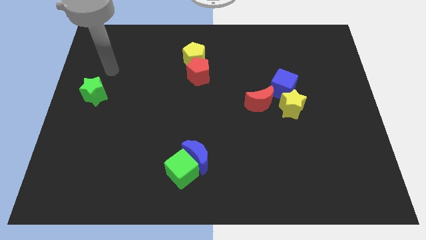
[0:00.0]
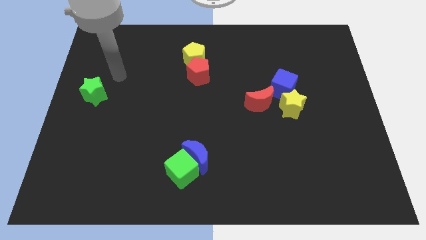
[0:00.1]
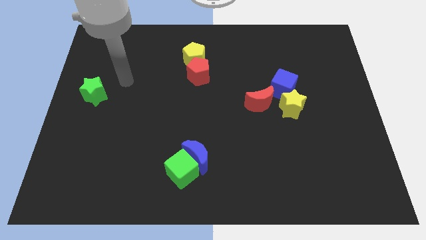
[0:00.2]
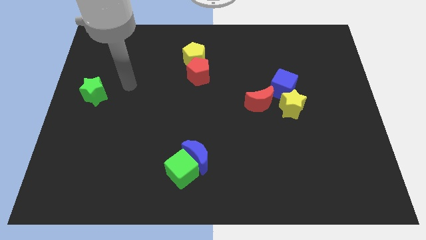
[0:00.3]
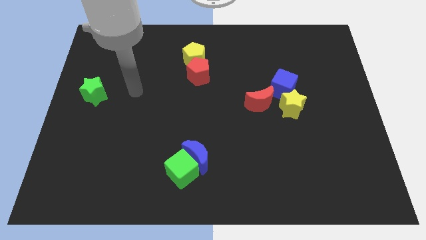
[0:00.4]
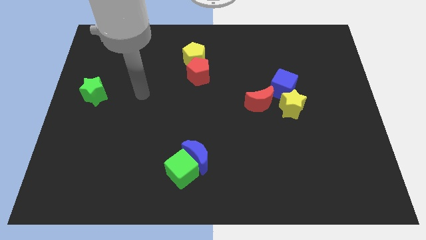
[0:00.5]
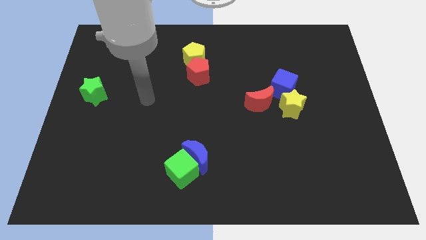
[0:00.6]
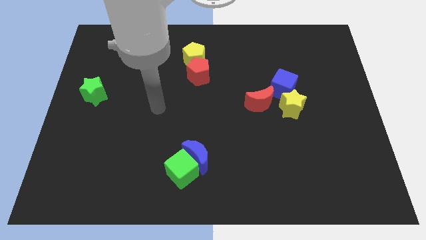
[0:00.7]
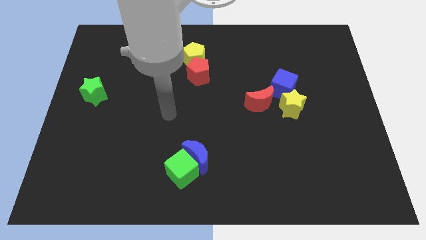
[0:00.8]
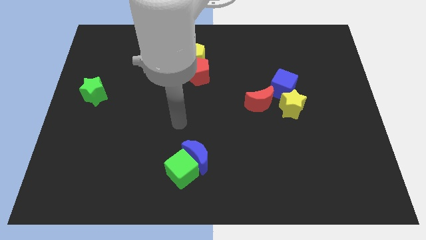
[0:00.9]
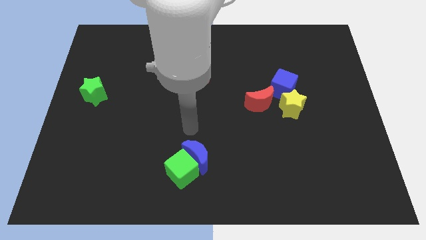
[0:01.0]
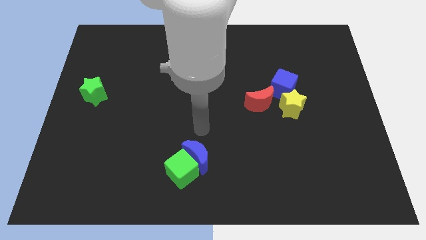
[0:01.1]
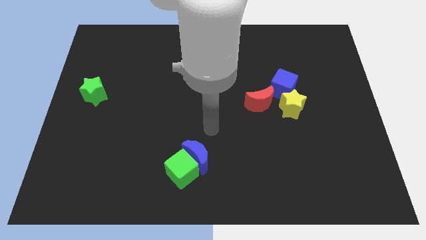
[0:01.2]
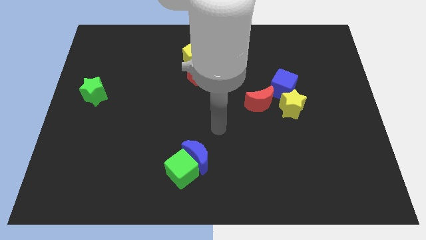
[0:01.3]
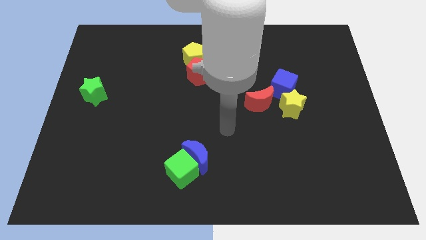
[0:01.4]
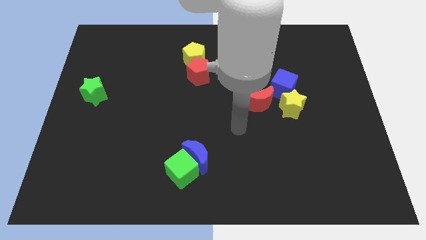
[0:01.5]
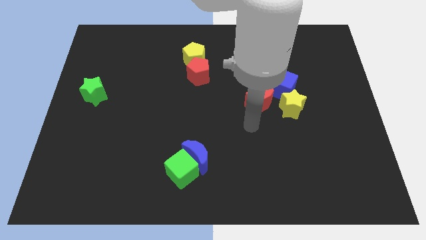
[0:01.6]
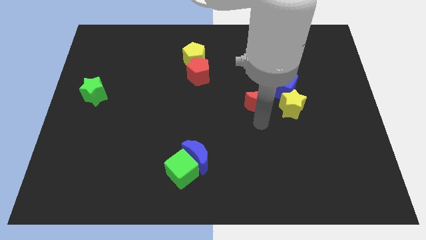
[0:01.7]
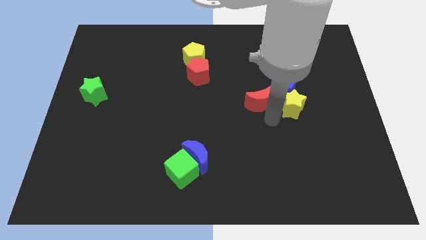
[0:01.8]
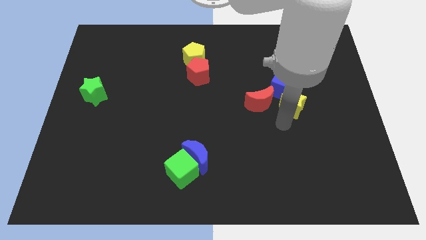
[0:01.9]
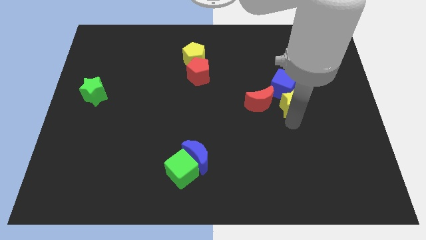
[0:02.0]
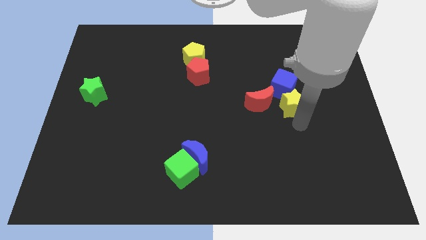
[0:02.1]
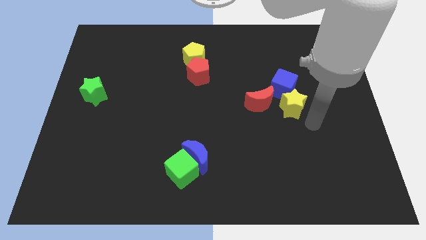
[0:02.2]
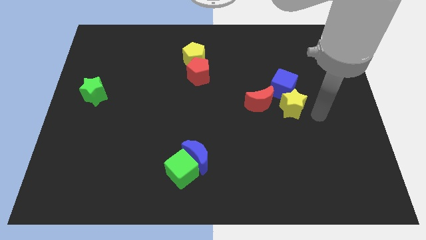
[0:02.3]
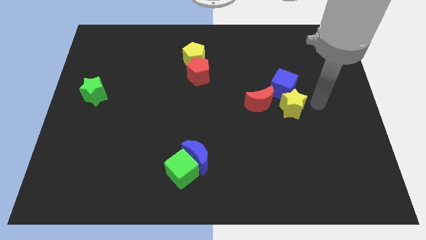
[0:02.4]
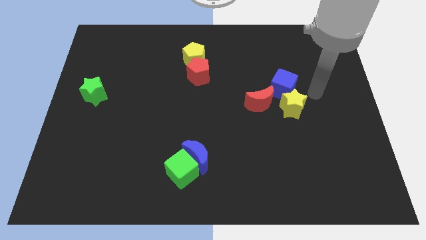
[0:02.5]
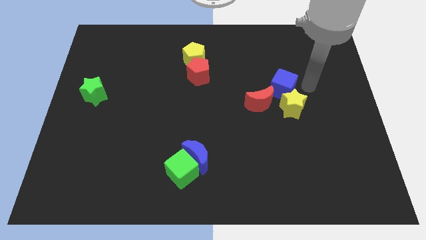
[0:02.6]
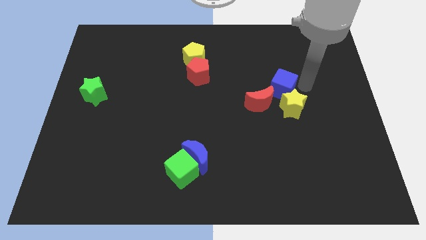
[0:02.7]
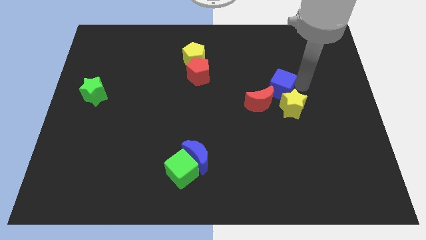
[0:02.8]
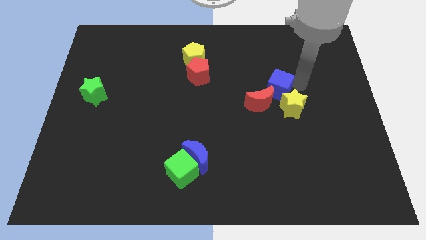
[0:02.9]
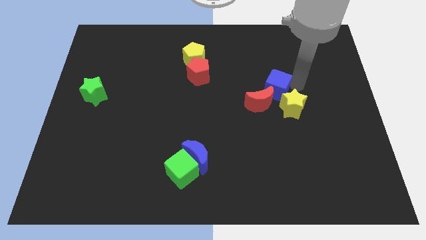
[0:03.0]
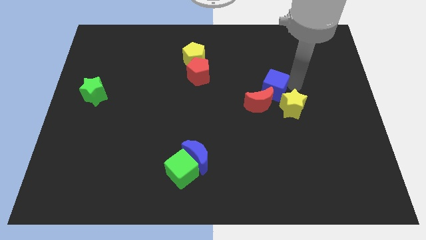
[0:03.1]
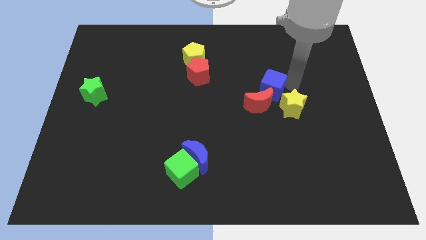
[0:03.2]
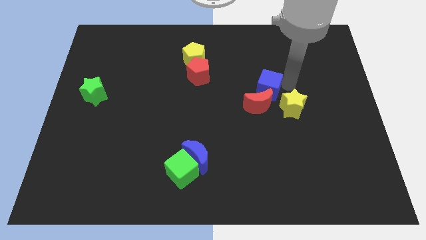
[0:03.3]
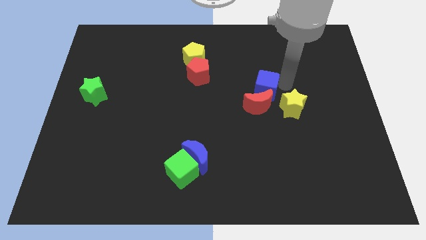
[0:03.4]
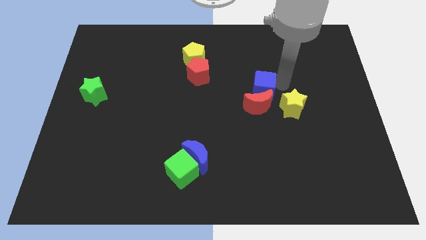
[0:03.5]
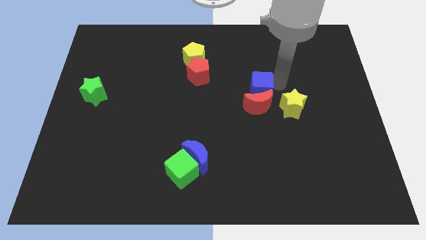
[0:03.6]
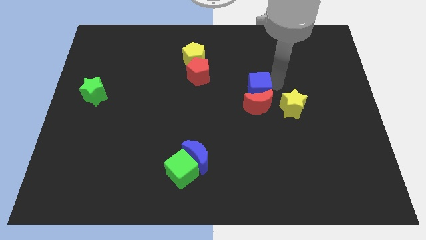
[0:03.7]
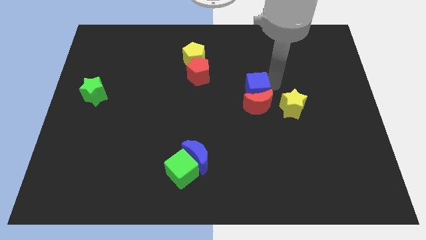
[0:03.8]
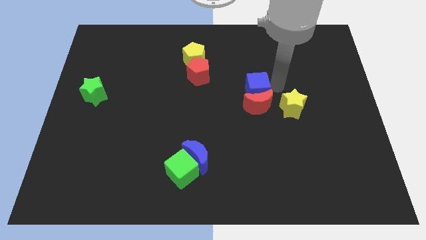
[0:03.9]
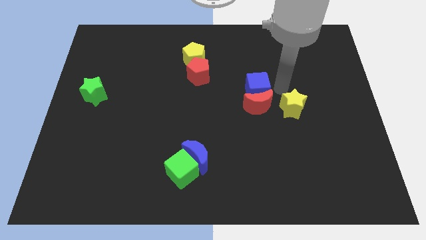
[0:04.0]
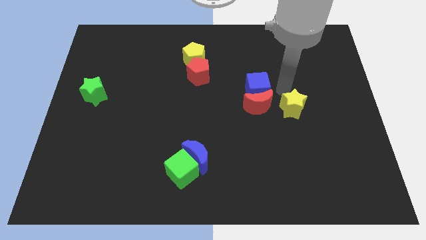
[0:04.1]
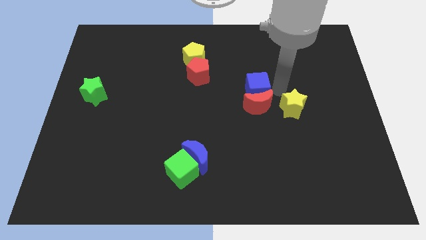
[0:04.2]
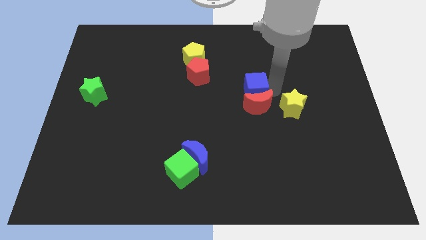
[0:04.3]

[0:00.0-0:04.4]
slightly push the blue cube left

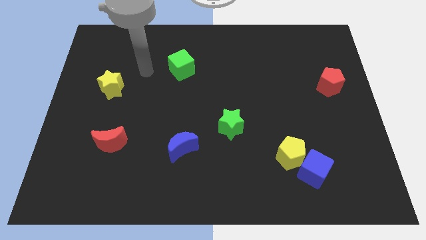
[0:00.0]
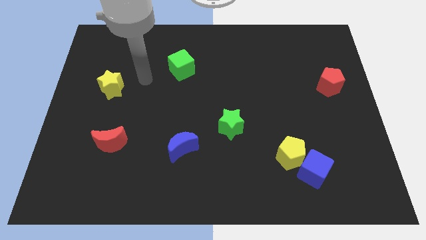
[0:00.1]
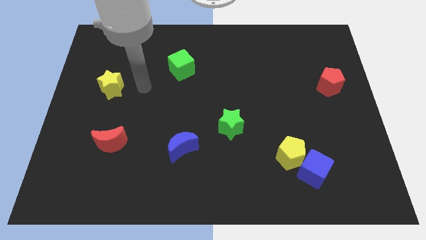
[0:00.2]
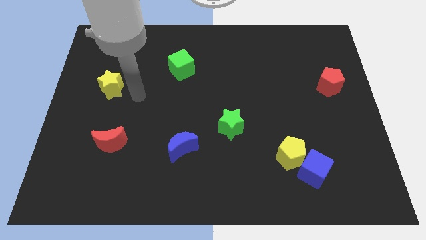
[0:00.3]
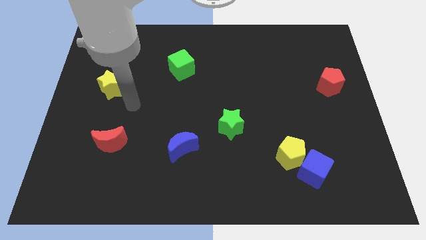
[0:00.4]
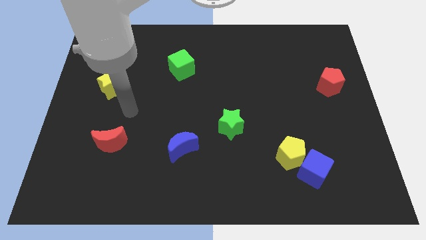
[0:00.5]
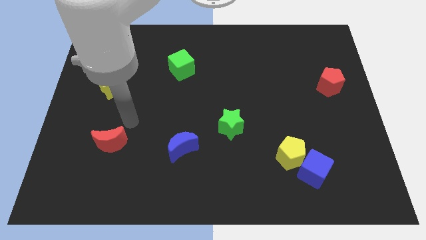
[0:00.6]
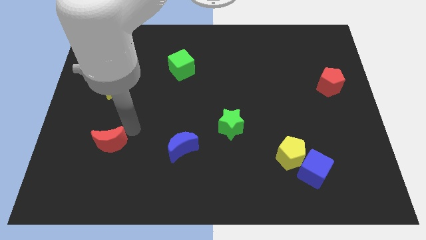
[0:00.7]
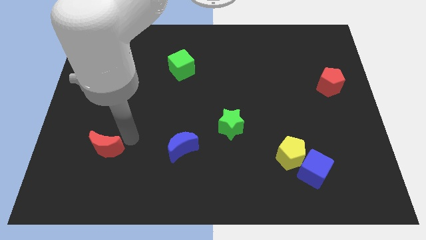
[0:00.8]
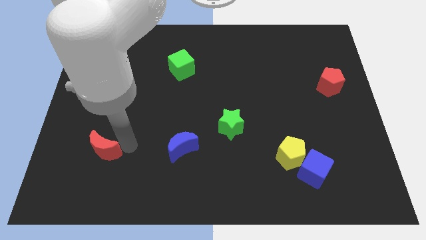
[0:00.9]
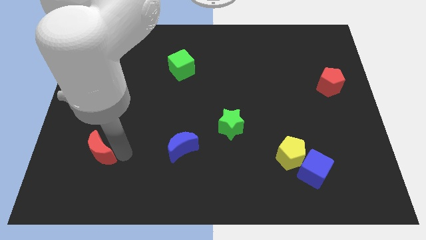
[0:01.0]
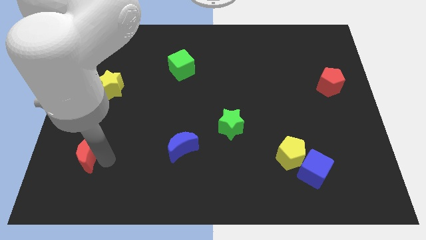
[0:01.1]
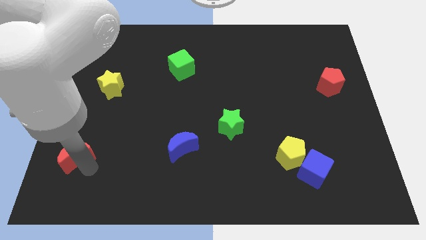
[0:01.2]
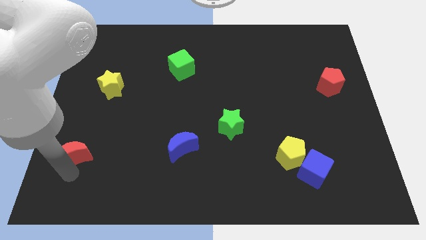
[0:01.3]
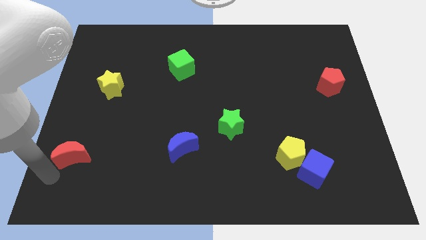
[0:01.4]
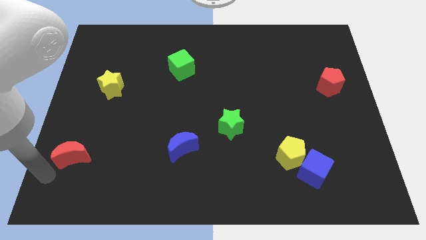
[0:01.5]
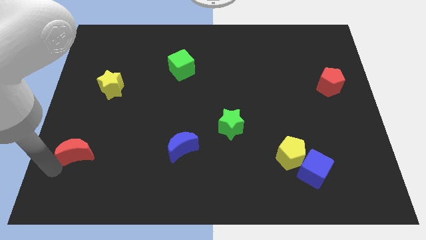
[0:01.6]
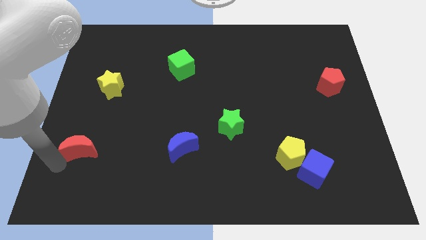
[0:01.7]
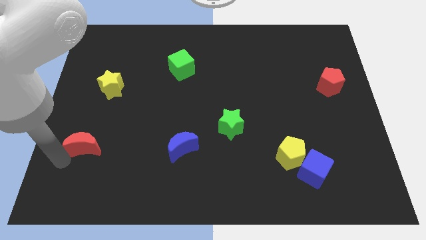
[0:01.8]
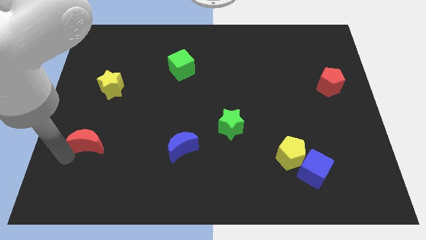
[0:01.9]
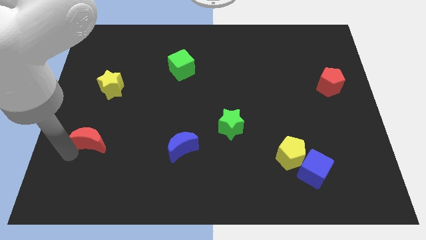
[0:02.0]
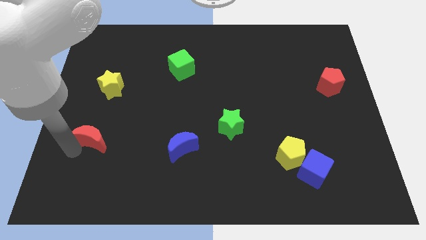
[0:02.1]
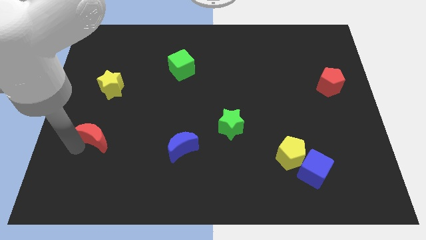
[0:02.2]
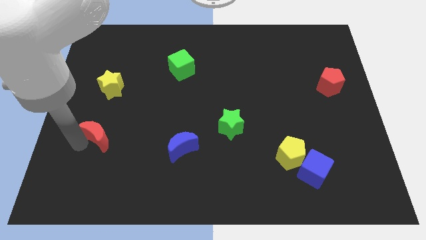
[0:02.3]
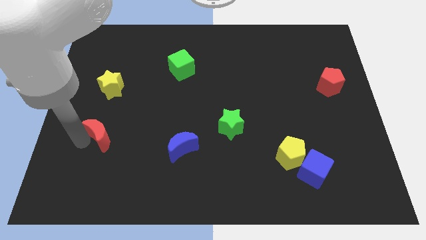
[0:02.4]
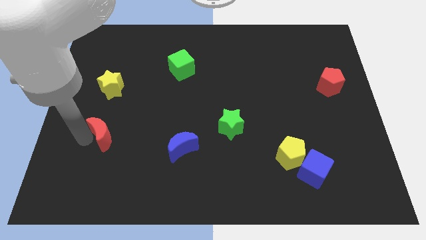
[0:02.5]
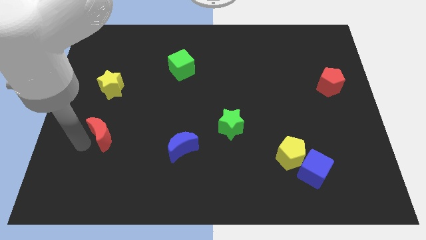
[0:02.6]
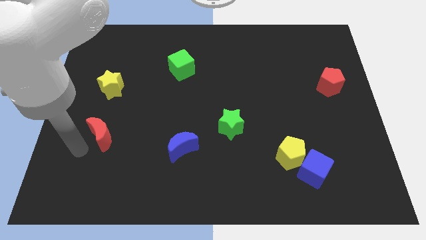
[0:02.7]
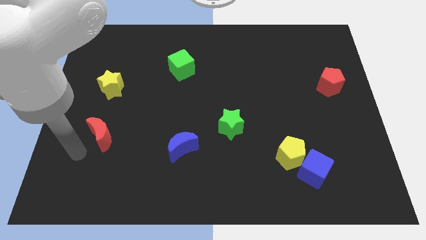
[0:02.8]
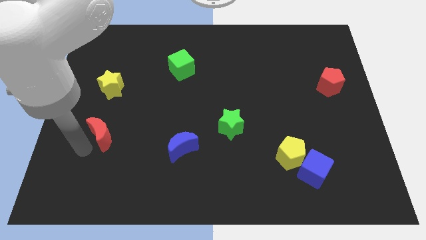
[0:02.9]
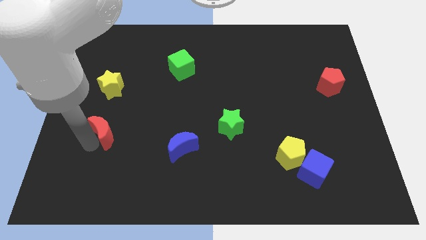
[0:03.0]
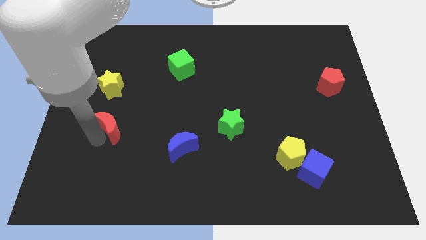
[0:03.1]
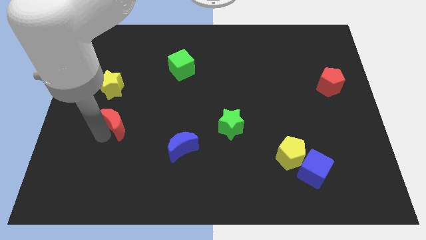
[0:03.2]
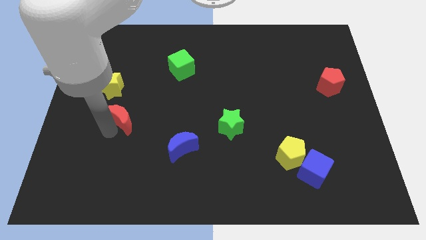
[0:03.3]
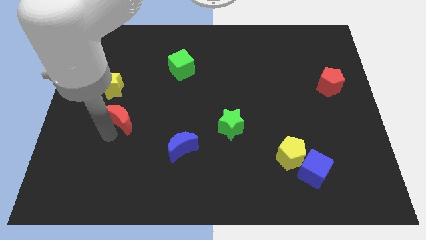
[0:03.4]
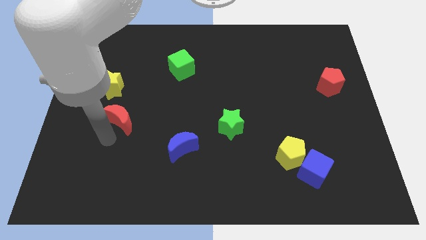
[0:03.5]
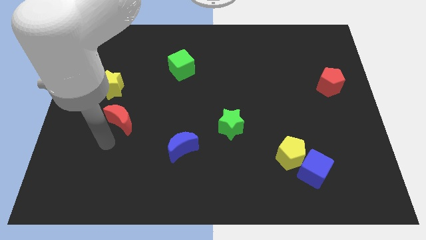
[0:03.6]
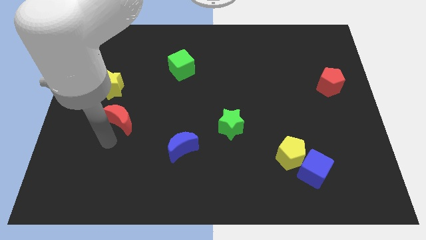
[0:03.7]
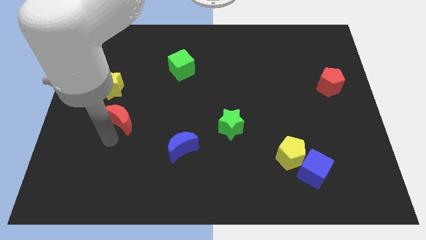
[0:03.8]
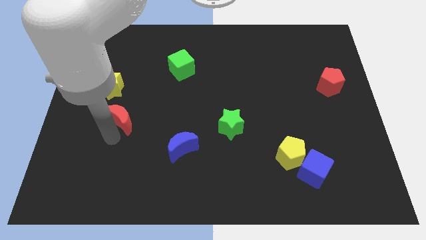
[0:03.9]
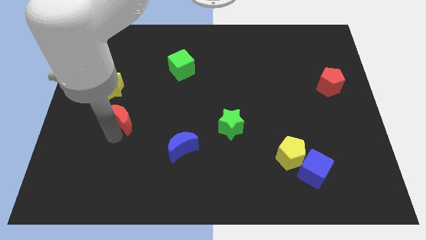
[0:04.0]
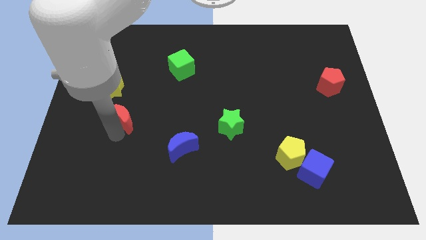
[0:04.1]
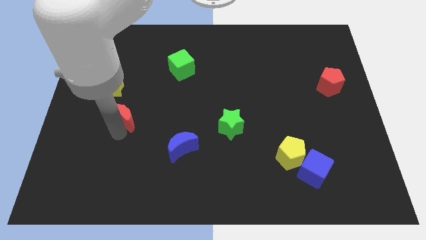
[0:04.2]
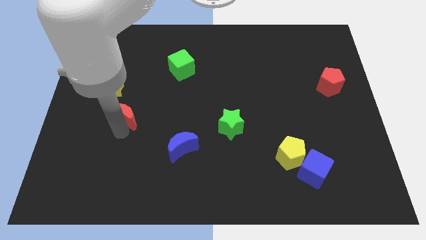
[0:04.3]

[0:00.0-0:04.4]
slide the red moon up a little bit
